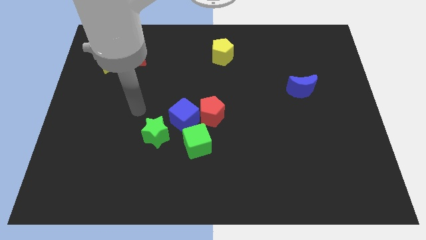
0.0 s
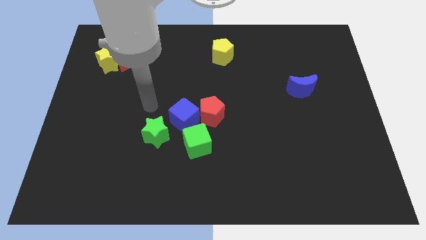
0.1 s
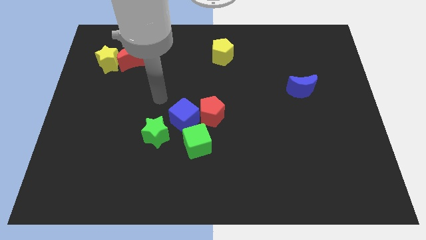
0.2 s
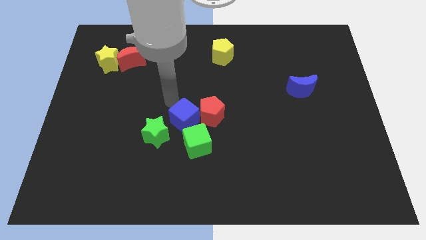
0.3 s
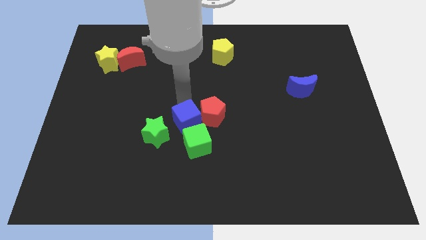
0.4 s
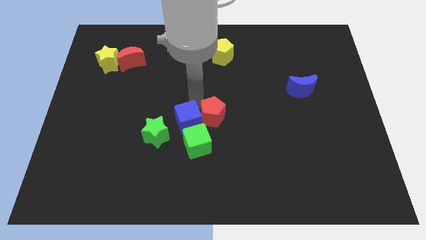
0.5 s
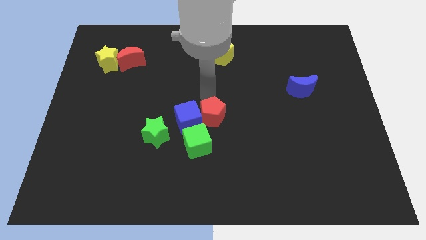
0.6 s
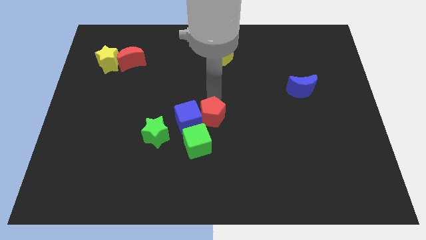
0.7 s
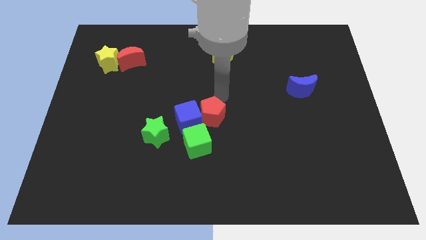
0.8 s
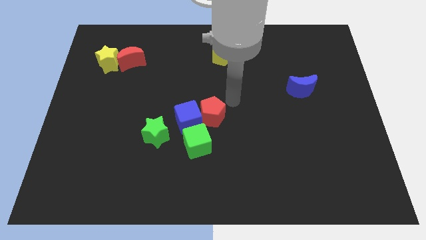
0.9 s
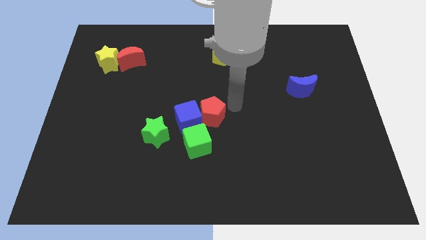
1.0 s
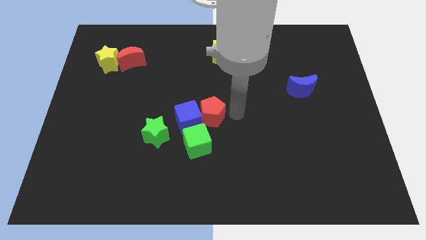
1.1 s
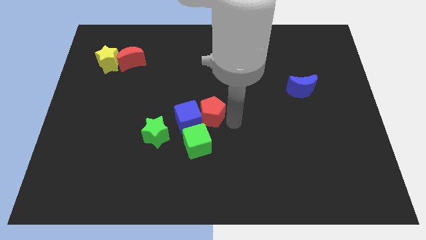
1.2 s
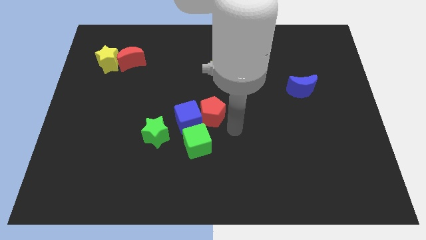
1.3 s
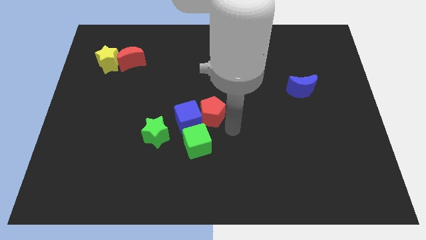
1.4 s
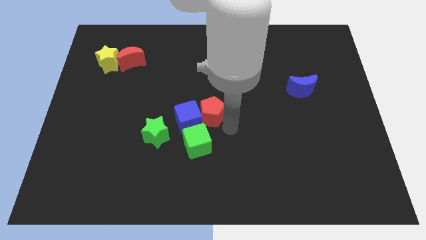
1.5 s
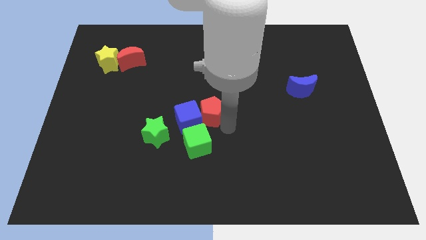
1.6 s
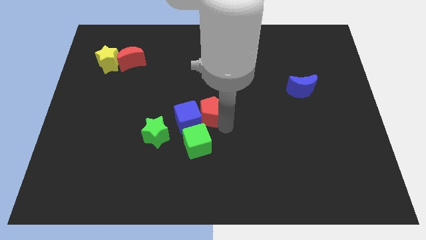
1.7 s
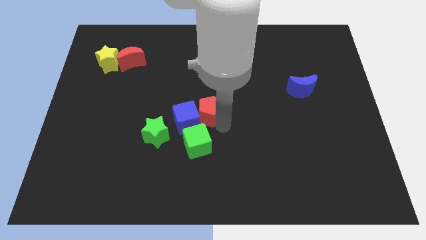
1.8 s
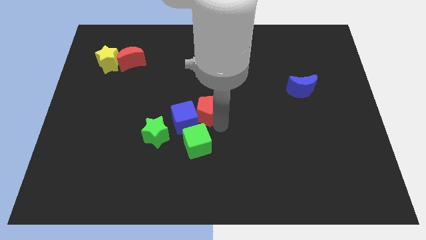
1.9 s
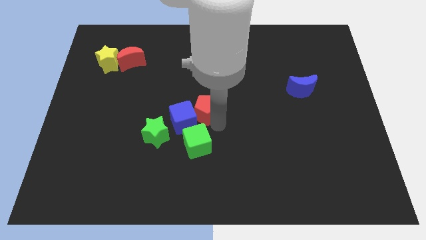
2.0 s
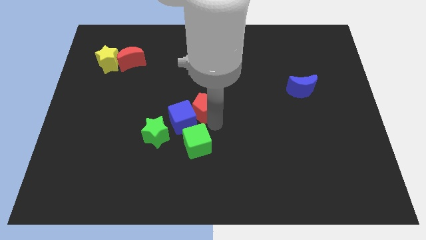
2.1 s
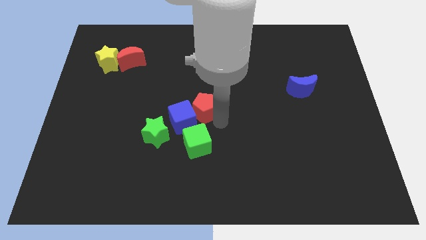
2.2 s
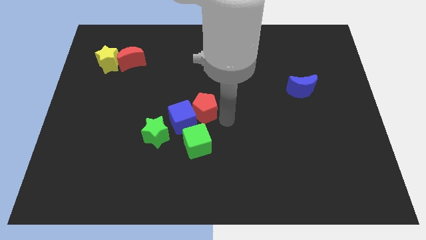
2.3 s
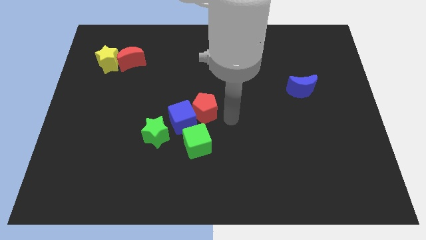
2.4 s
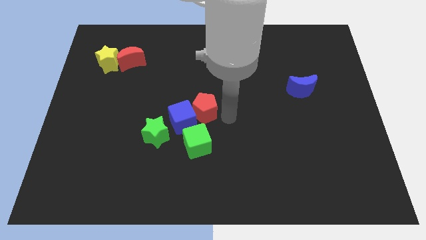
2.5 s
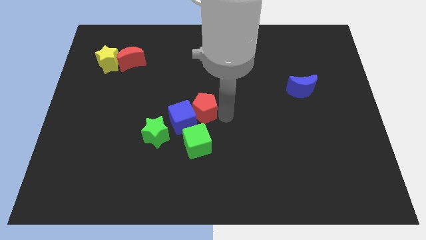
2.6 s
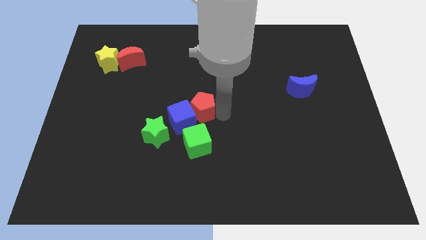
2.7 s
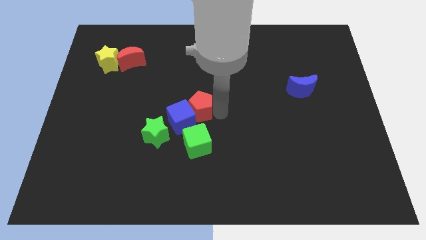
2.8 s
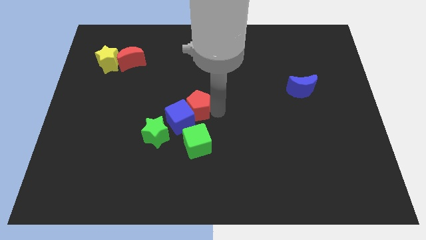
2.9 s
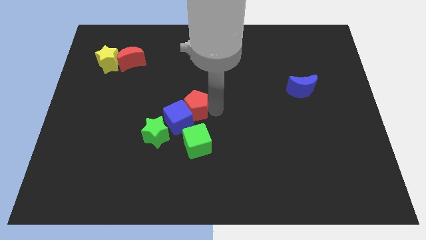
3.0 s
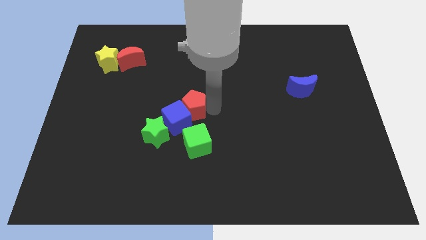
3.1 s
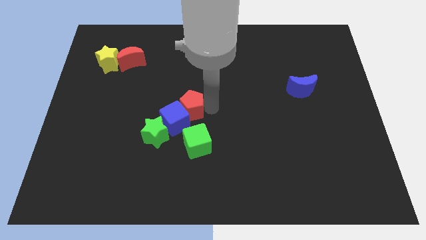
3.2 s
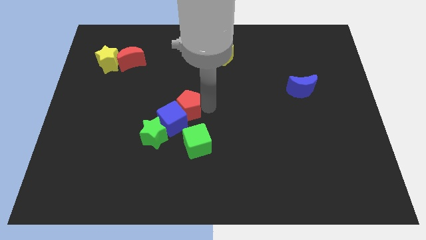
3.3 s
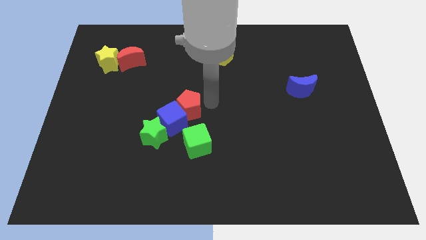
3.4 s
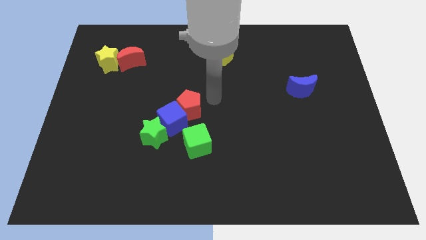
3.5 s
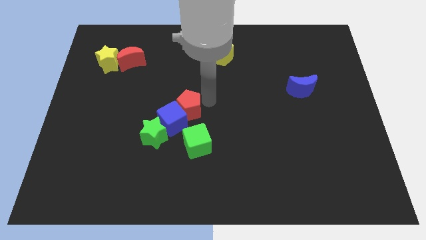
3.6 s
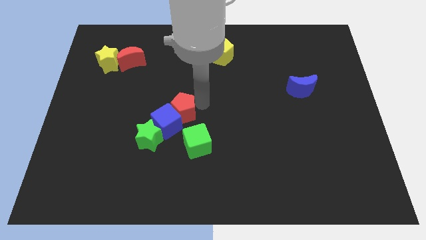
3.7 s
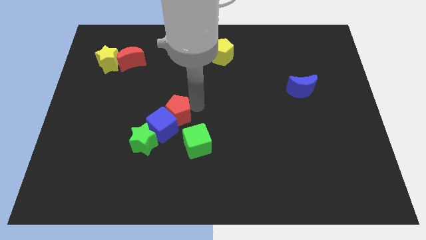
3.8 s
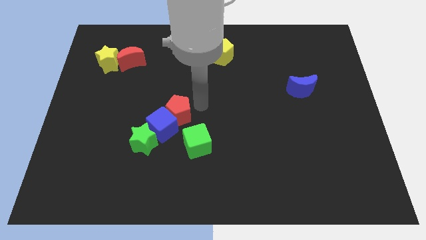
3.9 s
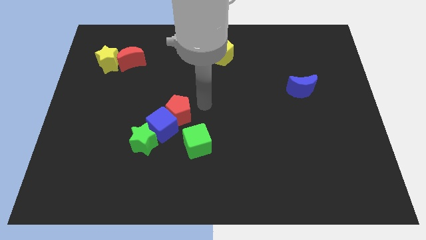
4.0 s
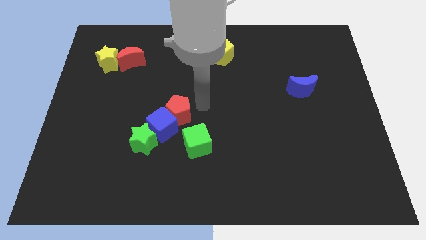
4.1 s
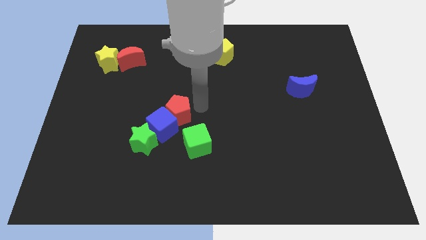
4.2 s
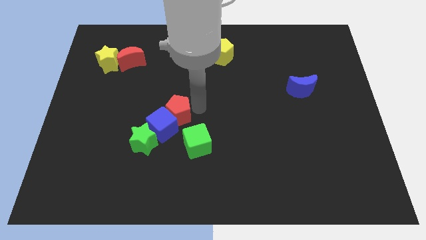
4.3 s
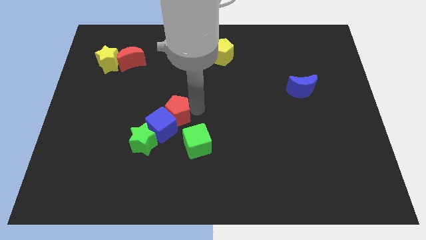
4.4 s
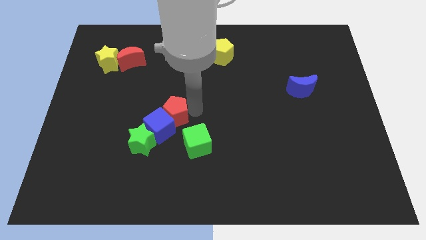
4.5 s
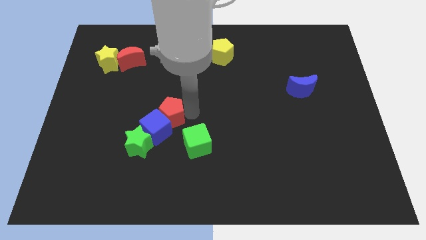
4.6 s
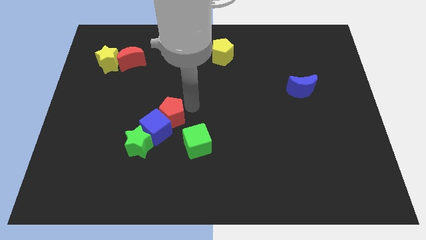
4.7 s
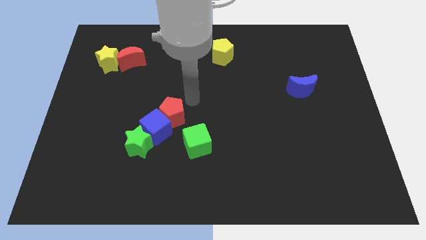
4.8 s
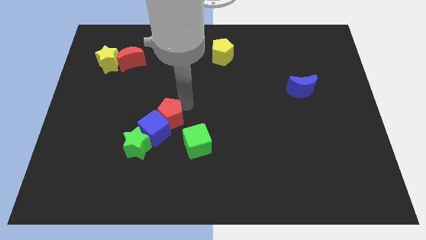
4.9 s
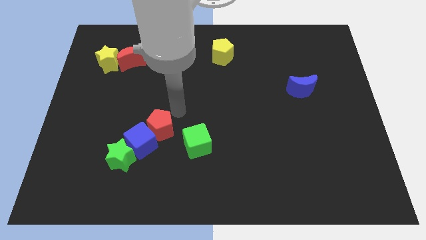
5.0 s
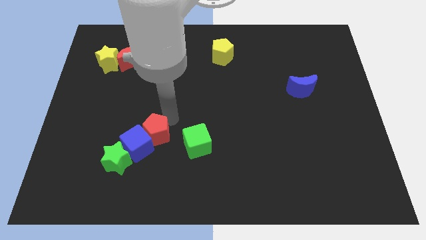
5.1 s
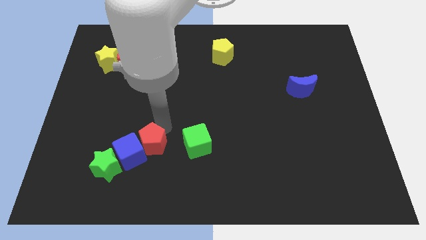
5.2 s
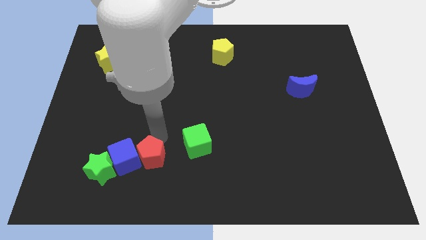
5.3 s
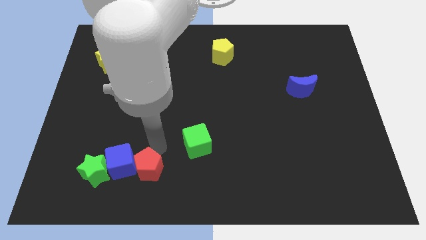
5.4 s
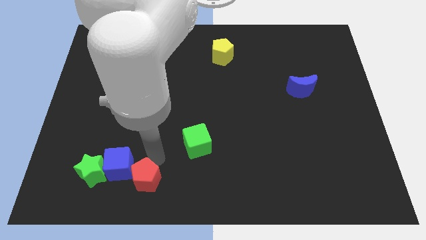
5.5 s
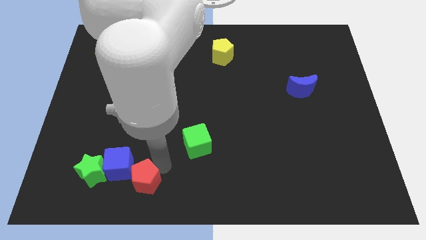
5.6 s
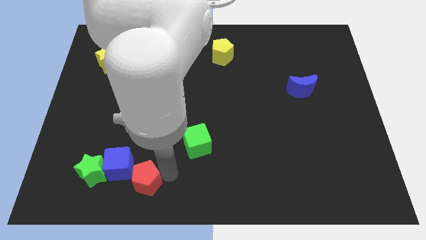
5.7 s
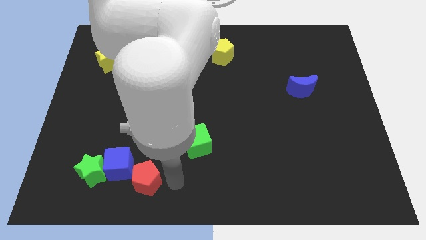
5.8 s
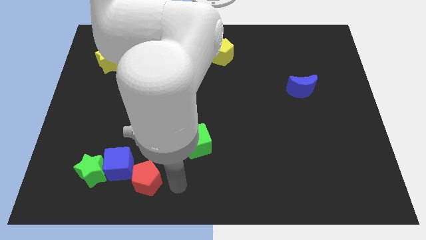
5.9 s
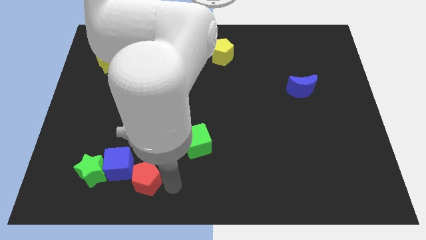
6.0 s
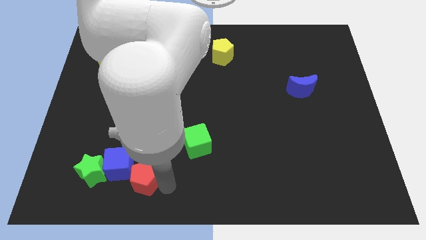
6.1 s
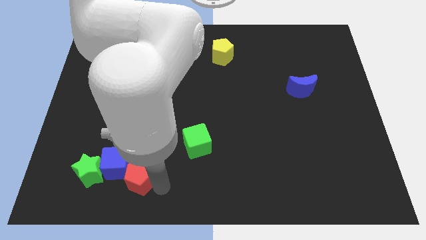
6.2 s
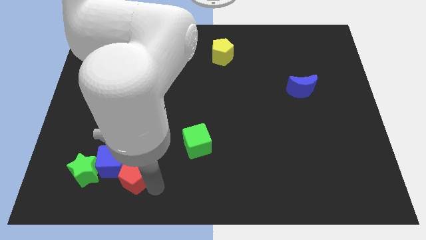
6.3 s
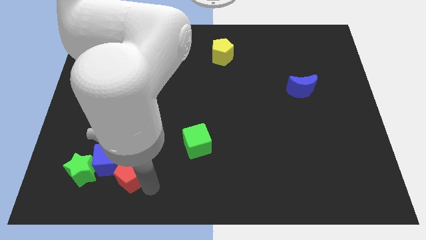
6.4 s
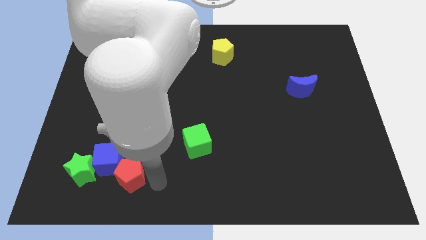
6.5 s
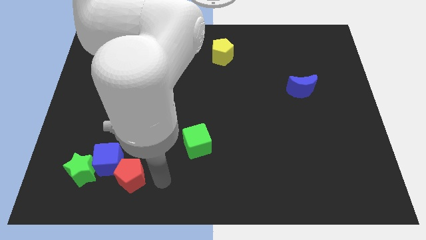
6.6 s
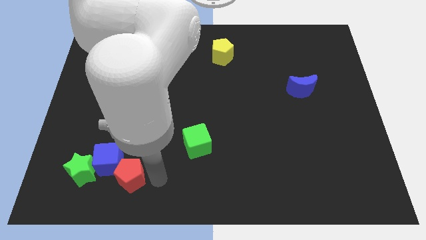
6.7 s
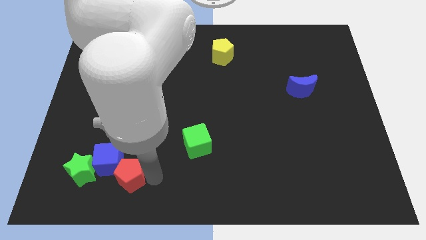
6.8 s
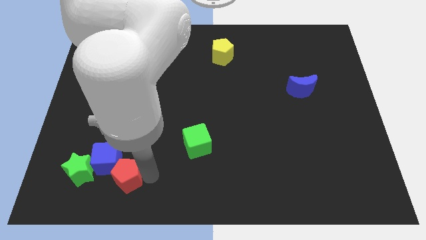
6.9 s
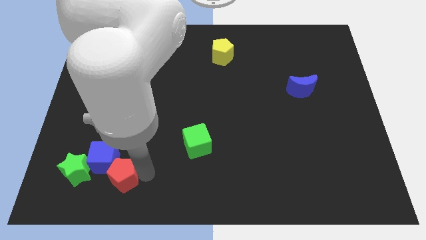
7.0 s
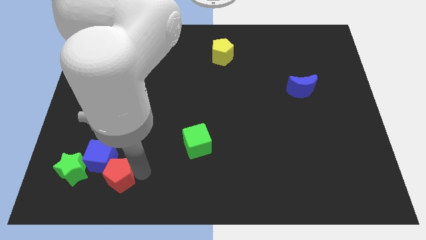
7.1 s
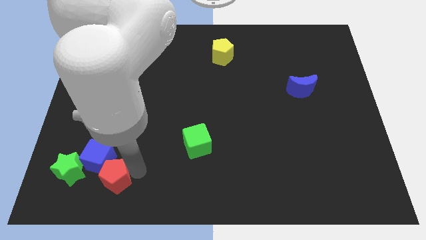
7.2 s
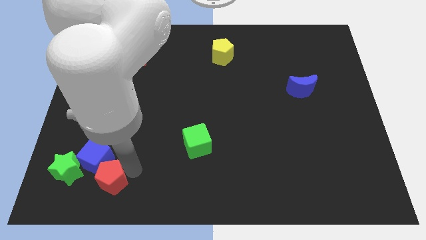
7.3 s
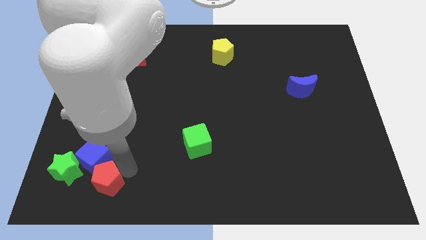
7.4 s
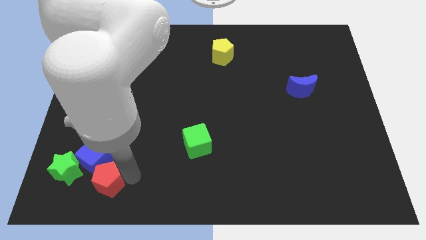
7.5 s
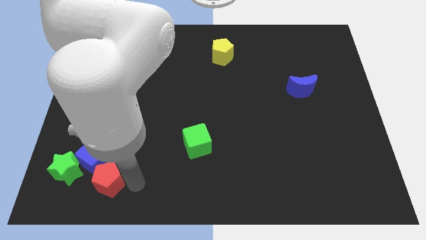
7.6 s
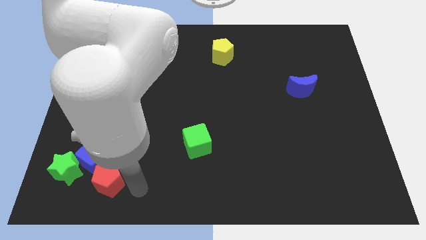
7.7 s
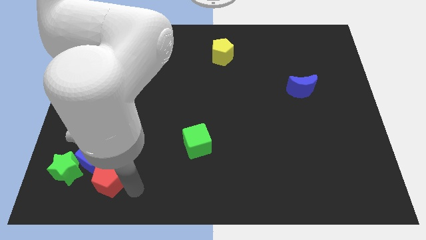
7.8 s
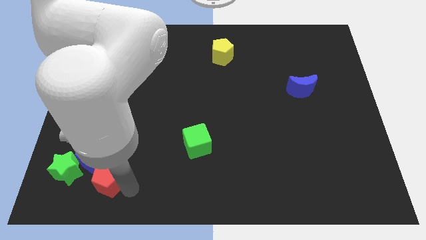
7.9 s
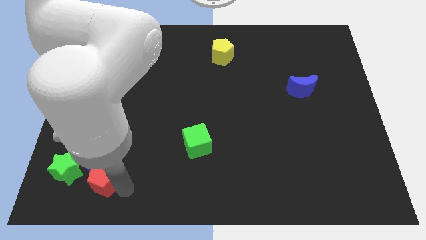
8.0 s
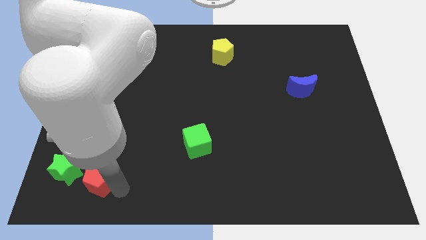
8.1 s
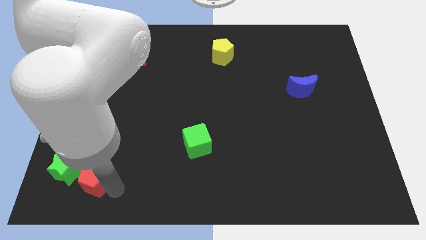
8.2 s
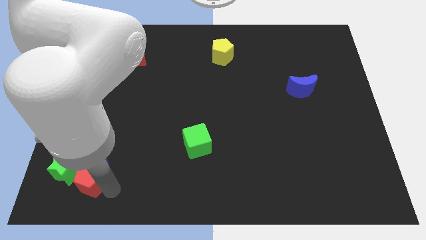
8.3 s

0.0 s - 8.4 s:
put the red pentagon to the green star
